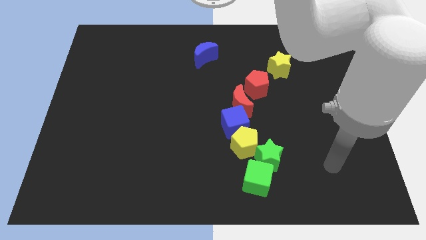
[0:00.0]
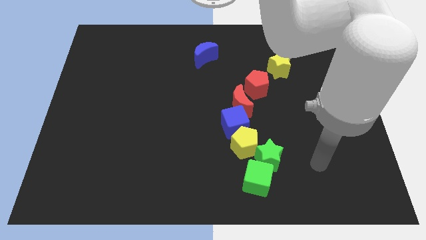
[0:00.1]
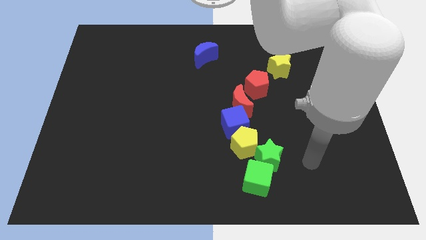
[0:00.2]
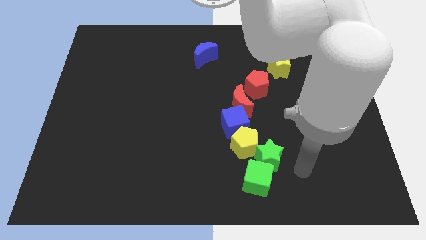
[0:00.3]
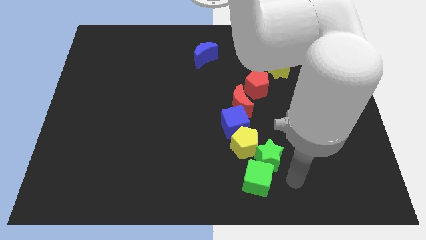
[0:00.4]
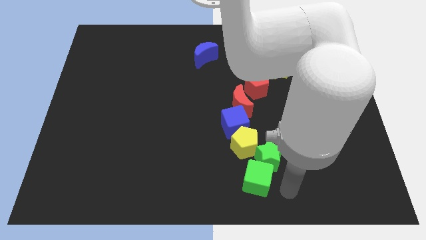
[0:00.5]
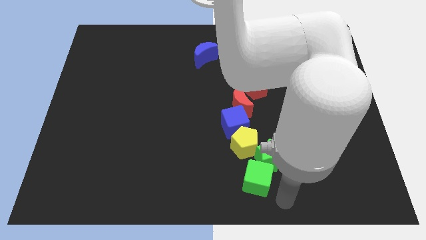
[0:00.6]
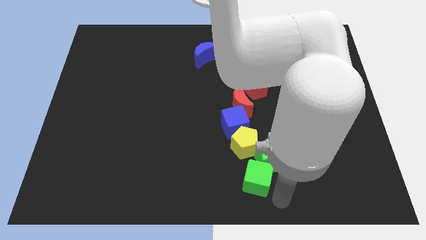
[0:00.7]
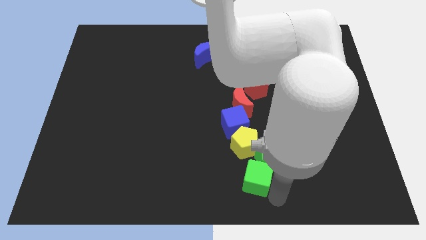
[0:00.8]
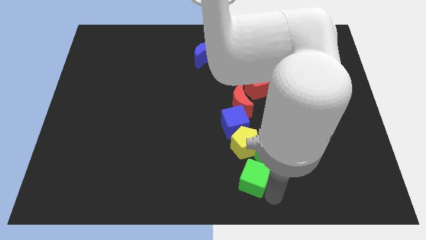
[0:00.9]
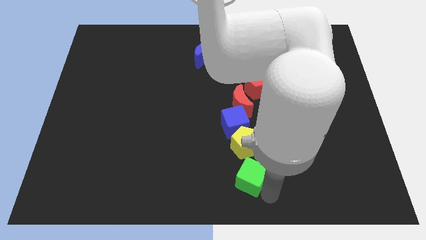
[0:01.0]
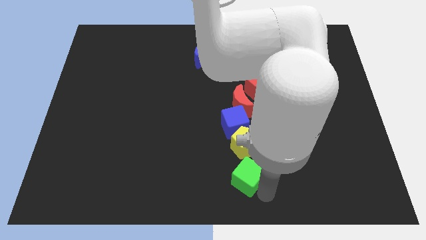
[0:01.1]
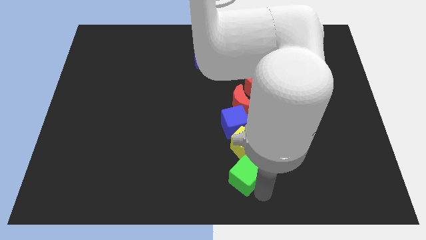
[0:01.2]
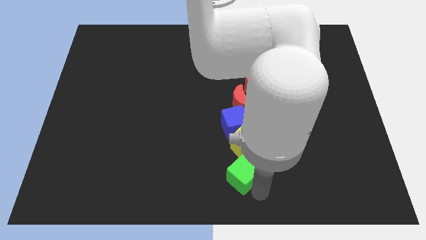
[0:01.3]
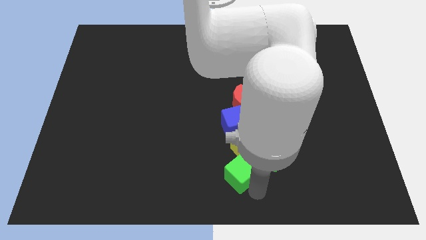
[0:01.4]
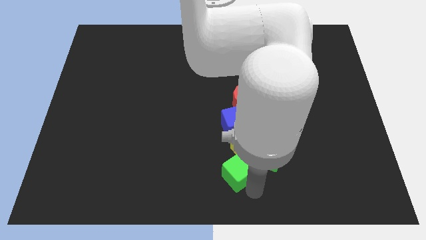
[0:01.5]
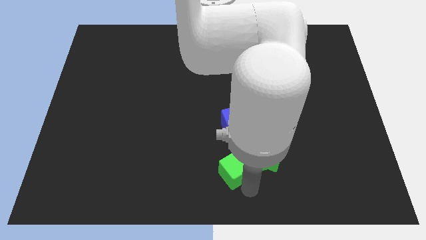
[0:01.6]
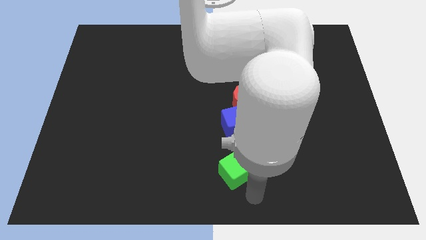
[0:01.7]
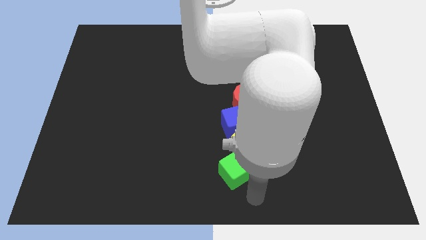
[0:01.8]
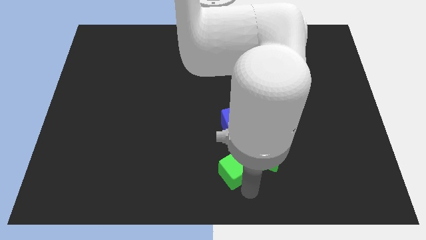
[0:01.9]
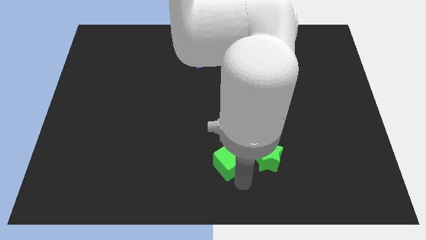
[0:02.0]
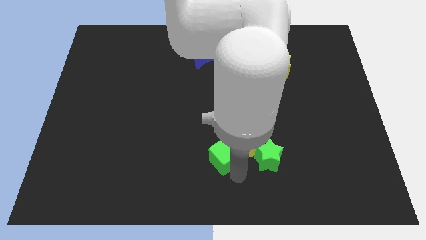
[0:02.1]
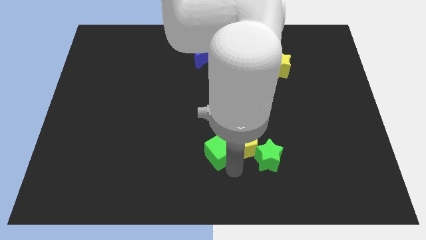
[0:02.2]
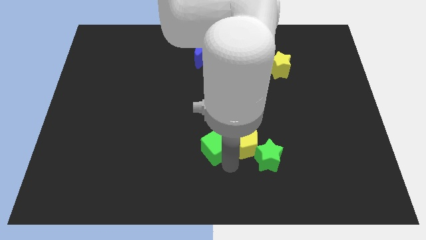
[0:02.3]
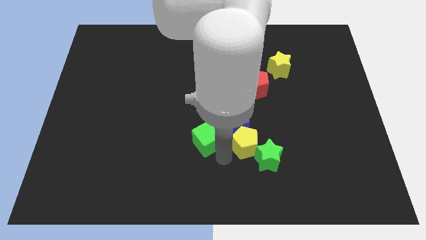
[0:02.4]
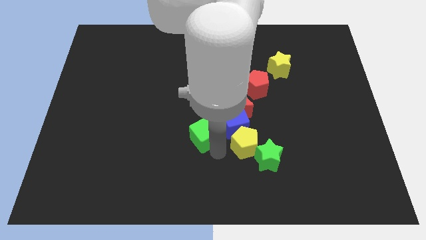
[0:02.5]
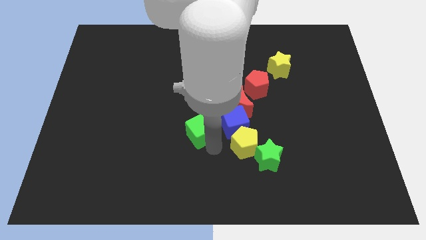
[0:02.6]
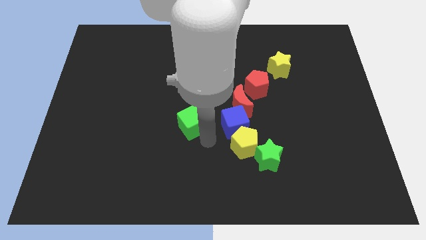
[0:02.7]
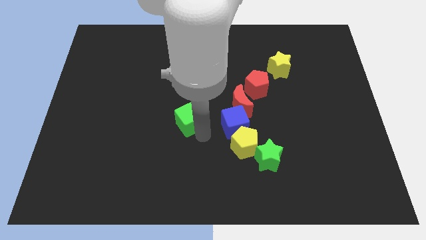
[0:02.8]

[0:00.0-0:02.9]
move the green cube up and left diagonally

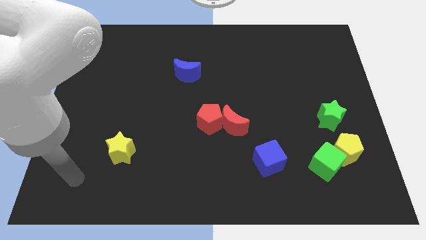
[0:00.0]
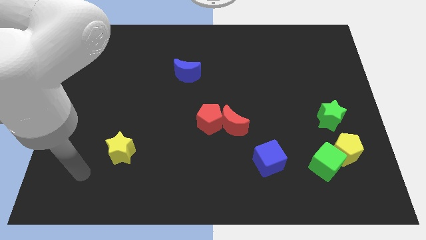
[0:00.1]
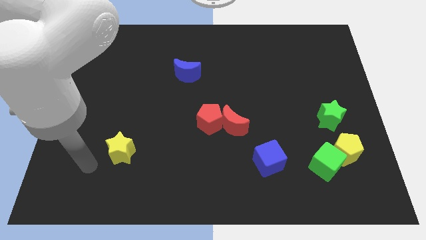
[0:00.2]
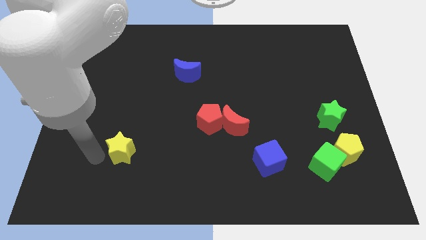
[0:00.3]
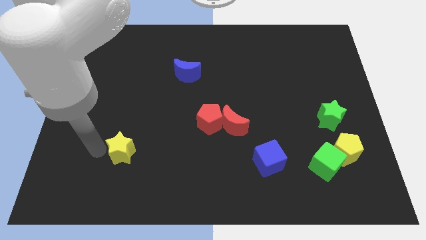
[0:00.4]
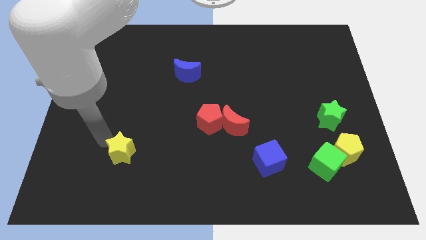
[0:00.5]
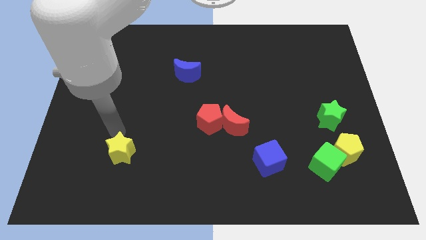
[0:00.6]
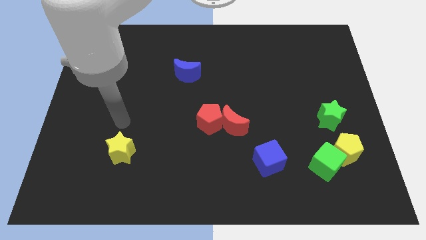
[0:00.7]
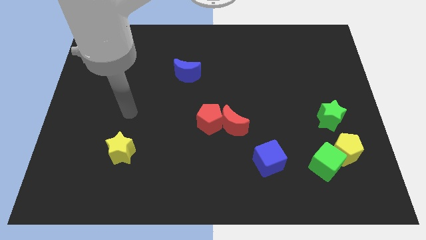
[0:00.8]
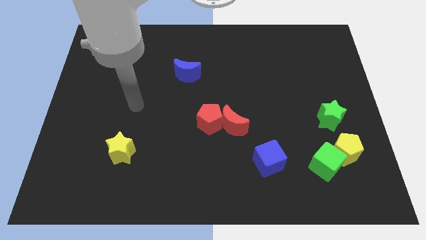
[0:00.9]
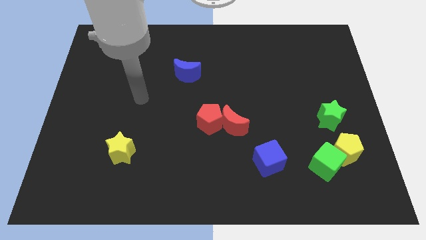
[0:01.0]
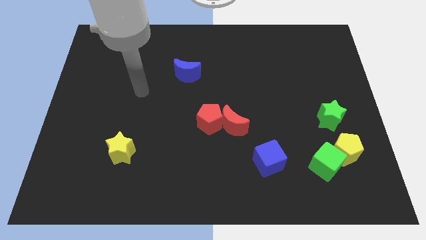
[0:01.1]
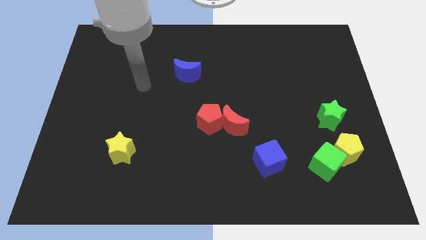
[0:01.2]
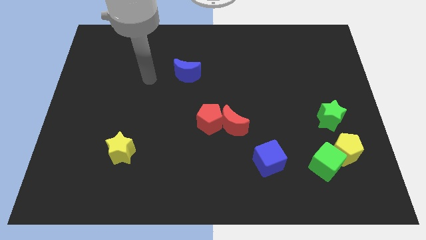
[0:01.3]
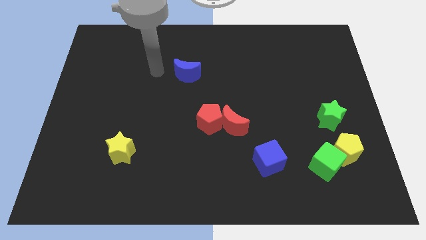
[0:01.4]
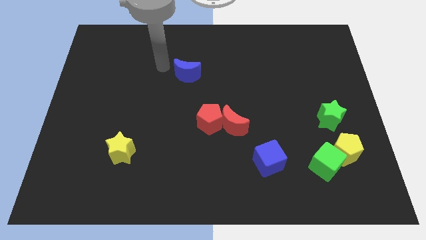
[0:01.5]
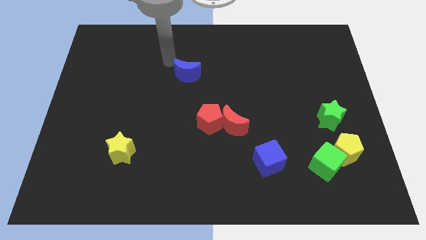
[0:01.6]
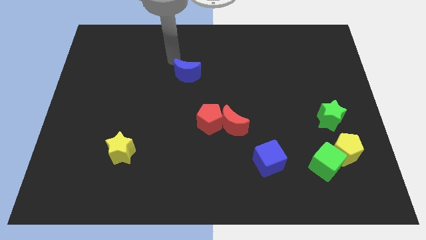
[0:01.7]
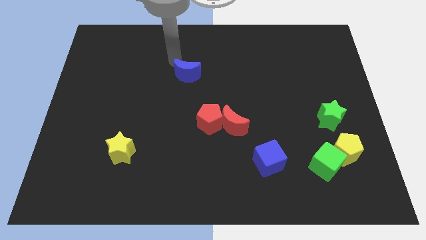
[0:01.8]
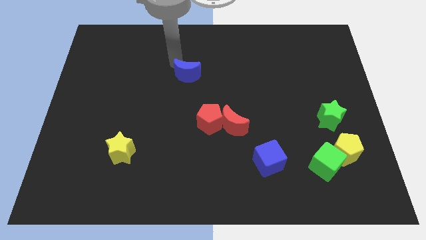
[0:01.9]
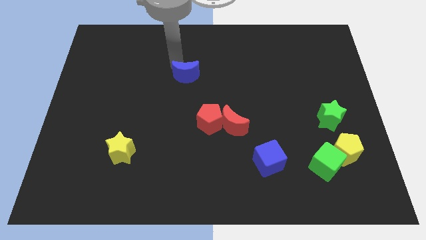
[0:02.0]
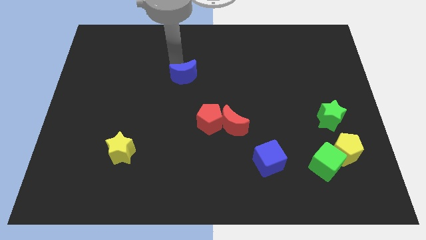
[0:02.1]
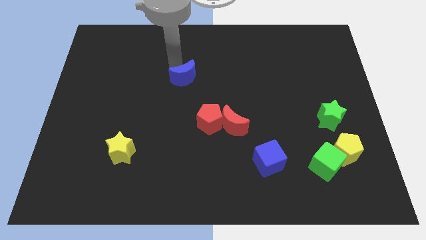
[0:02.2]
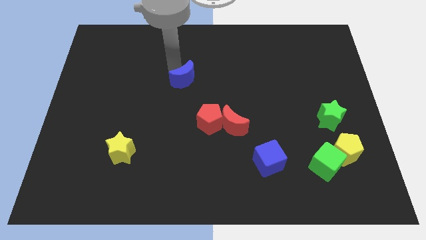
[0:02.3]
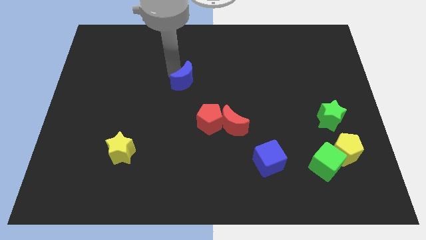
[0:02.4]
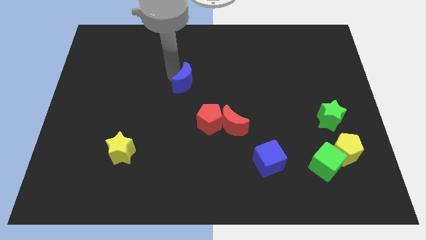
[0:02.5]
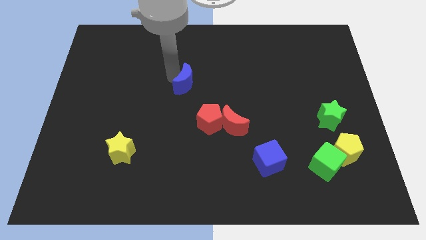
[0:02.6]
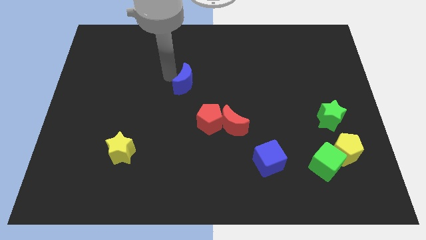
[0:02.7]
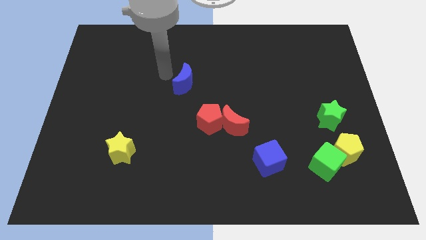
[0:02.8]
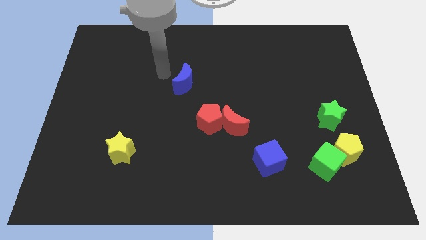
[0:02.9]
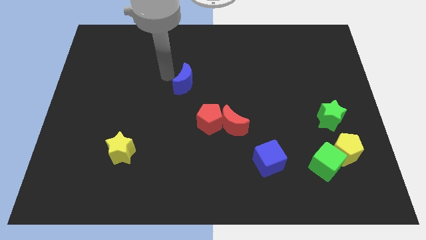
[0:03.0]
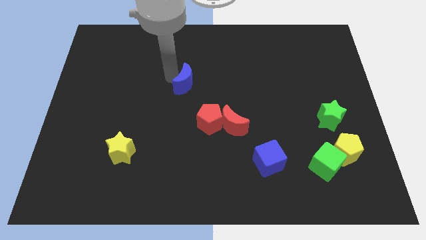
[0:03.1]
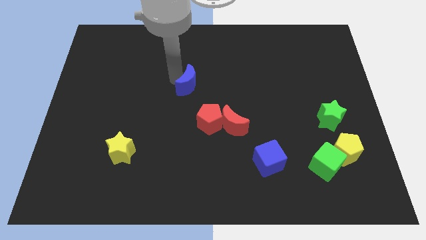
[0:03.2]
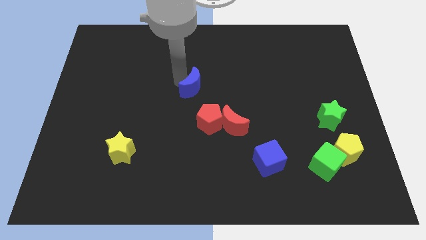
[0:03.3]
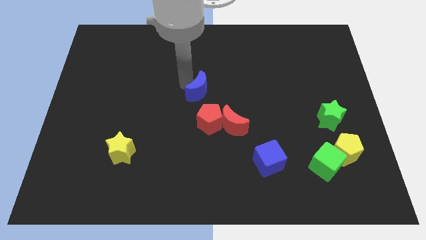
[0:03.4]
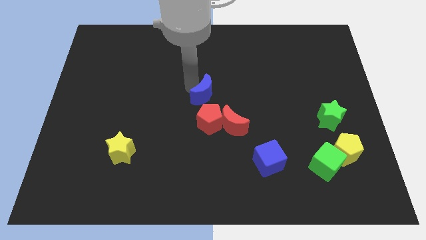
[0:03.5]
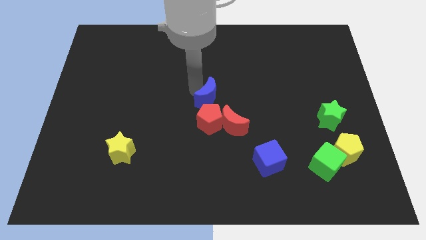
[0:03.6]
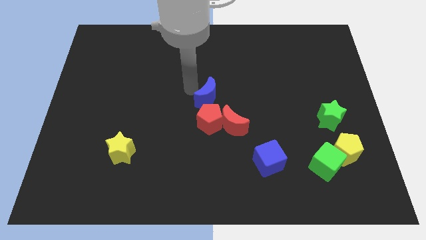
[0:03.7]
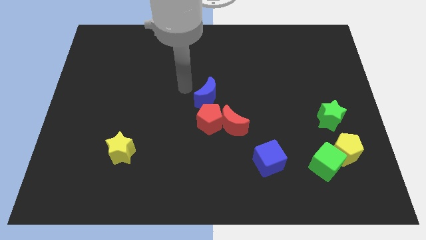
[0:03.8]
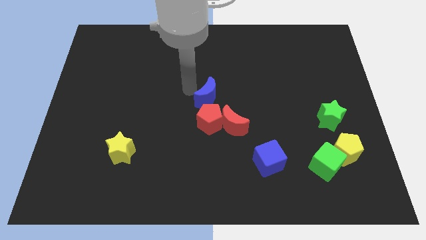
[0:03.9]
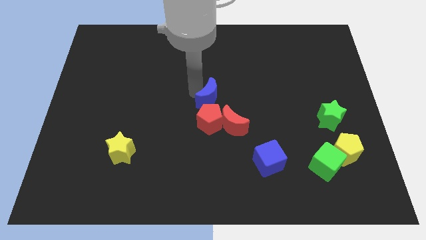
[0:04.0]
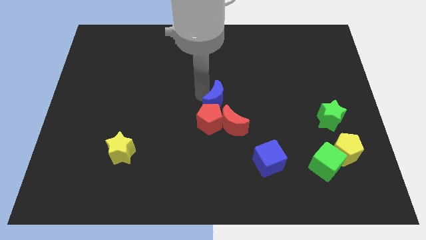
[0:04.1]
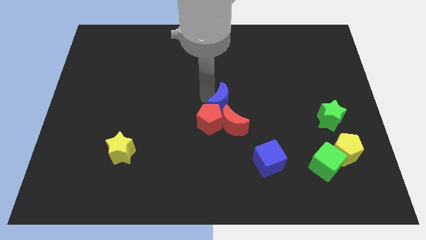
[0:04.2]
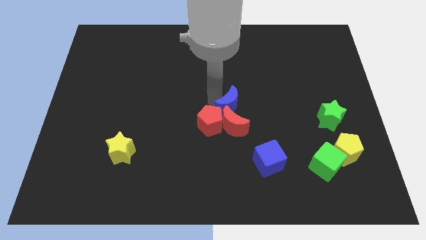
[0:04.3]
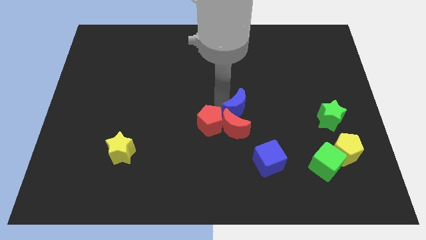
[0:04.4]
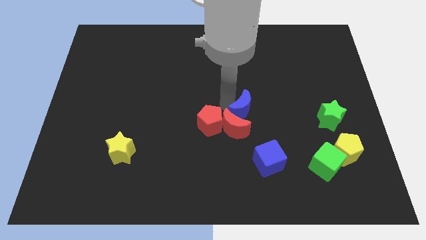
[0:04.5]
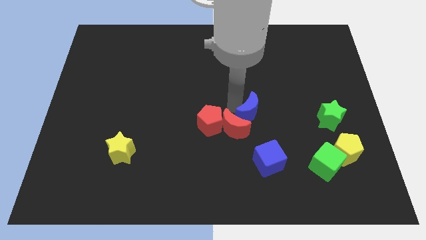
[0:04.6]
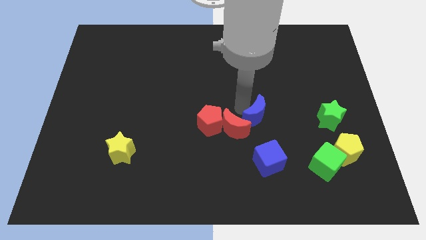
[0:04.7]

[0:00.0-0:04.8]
move the blue moon downwards and then right

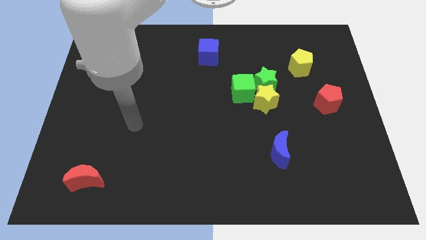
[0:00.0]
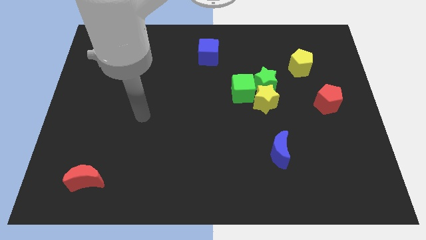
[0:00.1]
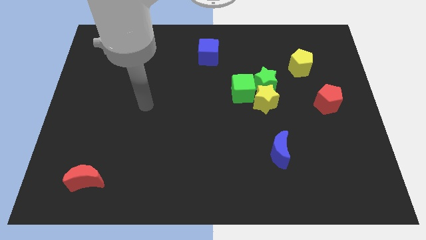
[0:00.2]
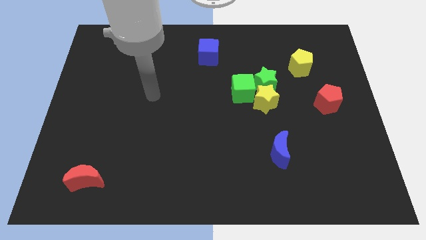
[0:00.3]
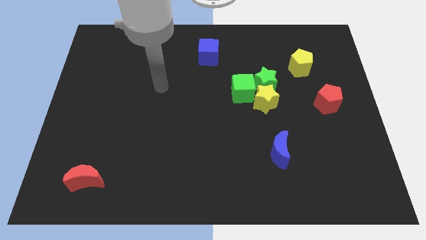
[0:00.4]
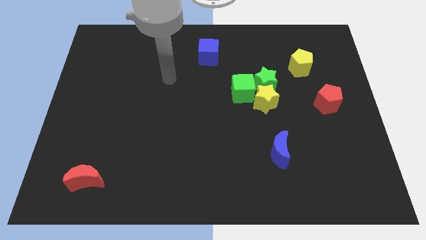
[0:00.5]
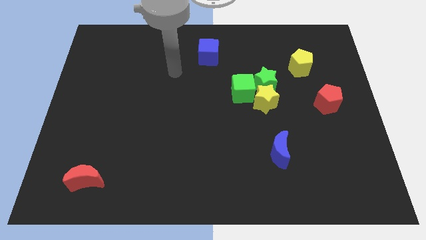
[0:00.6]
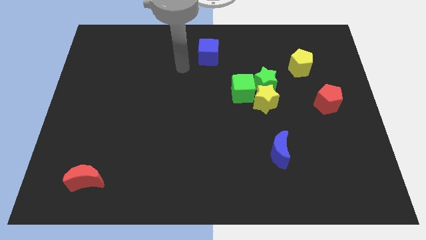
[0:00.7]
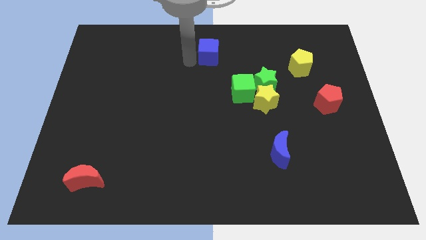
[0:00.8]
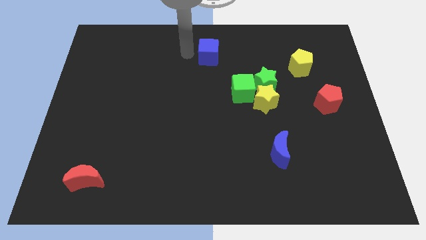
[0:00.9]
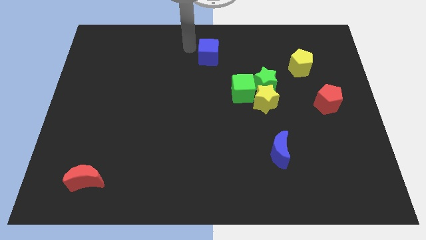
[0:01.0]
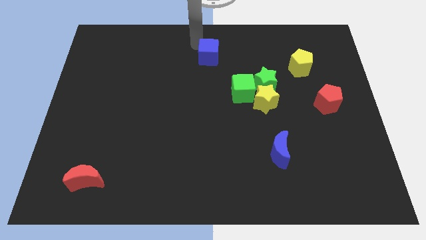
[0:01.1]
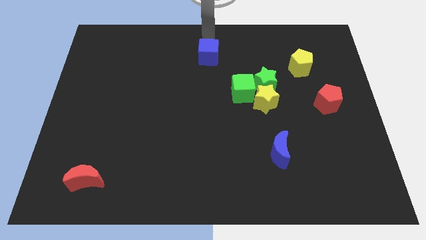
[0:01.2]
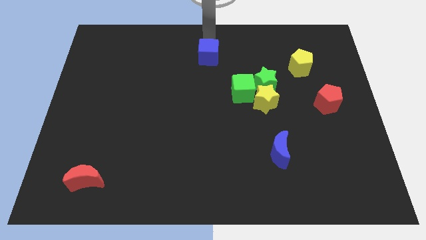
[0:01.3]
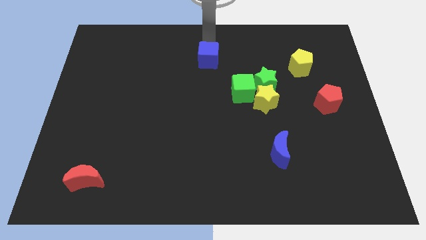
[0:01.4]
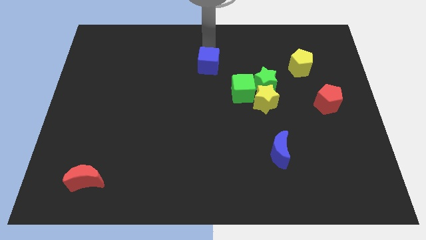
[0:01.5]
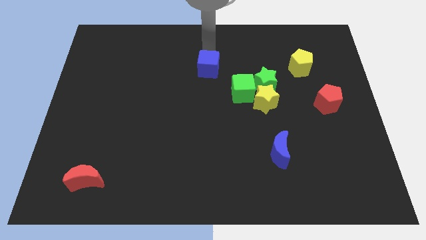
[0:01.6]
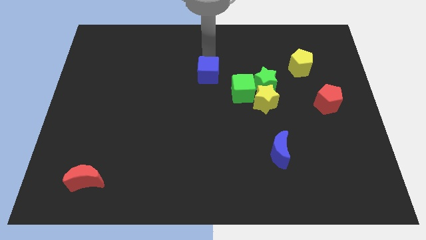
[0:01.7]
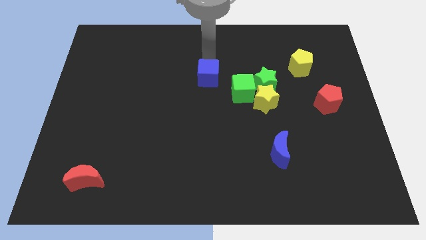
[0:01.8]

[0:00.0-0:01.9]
push the blue cube downwards a little bit
